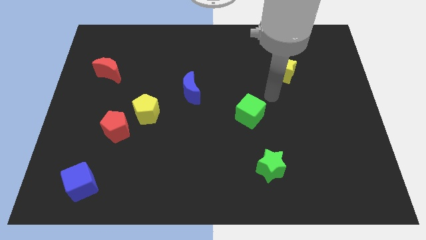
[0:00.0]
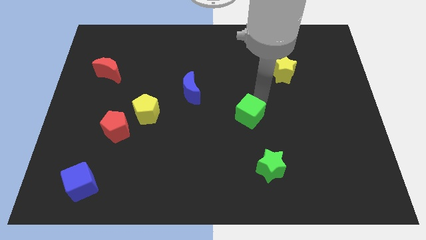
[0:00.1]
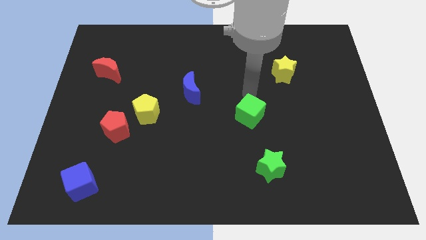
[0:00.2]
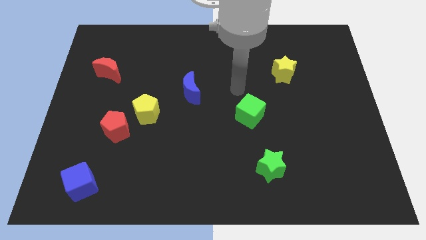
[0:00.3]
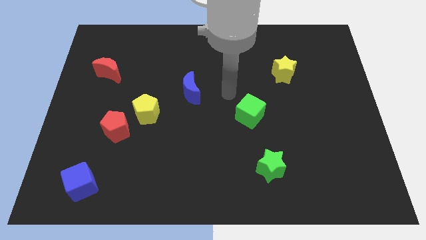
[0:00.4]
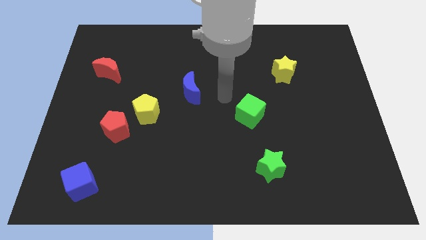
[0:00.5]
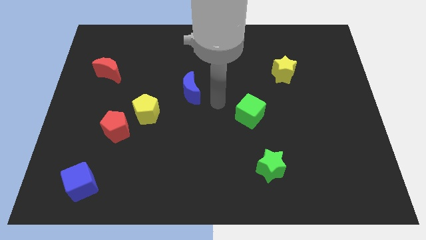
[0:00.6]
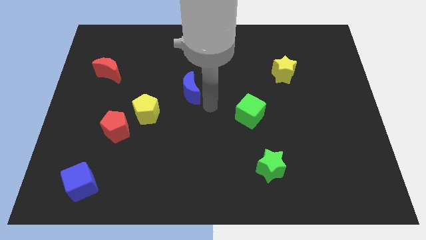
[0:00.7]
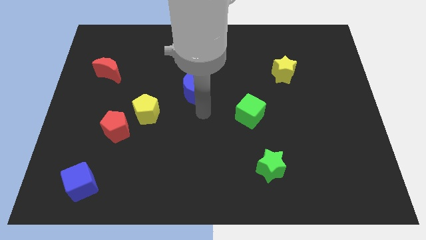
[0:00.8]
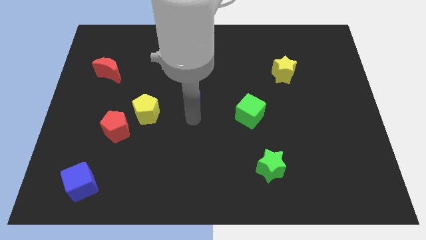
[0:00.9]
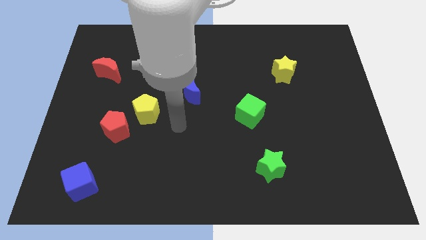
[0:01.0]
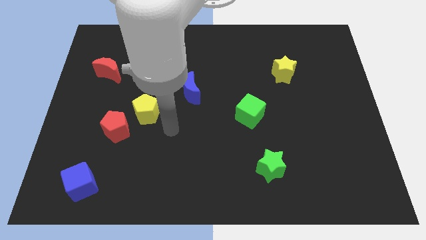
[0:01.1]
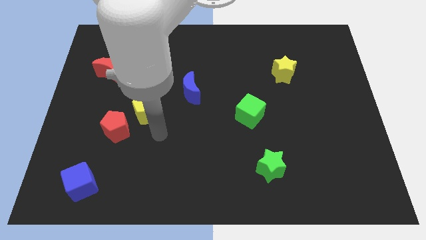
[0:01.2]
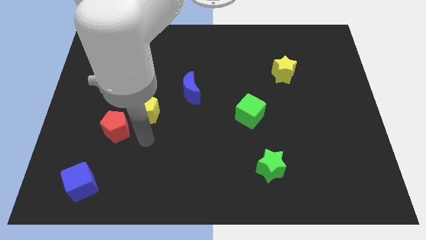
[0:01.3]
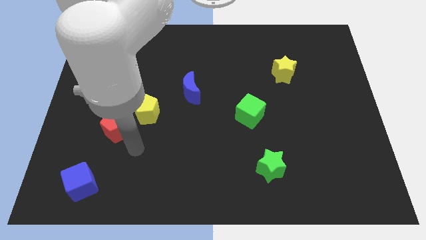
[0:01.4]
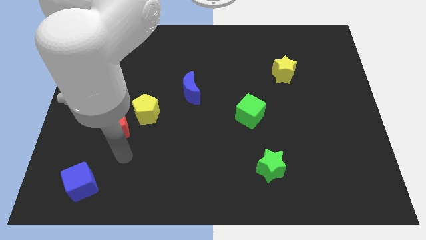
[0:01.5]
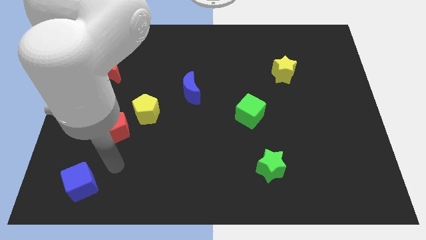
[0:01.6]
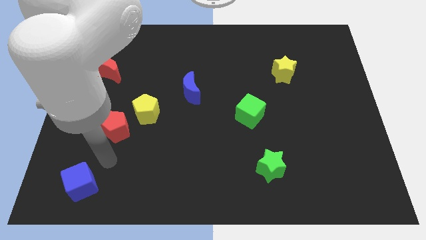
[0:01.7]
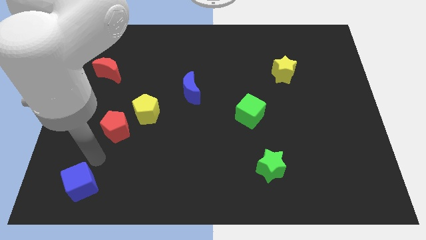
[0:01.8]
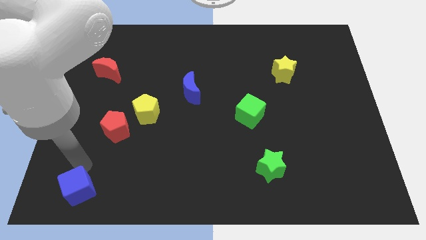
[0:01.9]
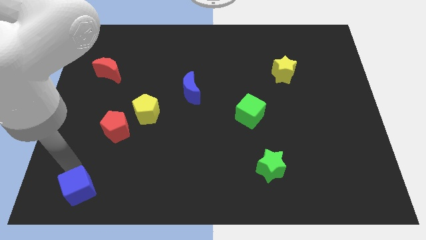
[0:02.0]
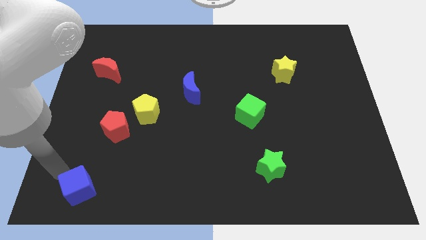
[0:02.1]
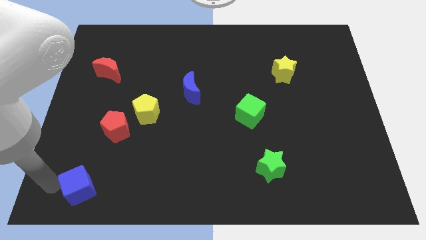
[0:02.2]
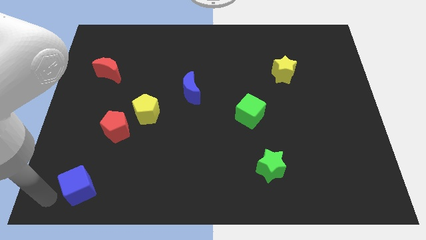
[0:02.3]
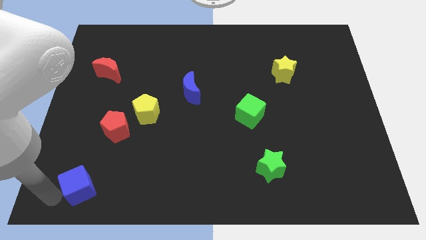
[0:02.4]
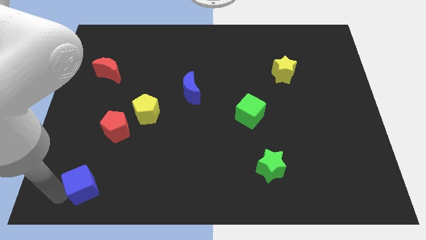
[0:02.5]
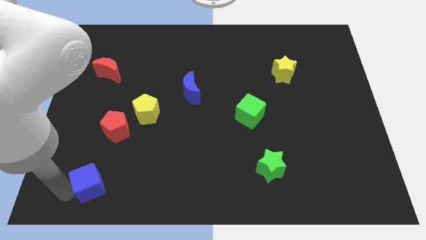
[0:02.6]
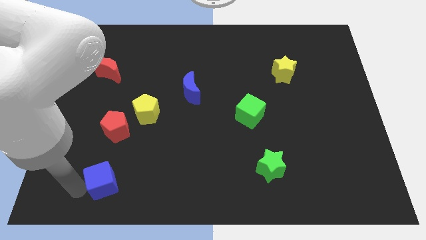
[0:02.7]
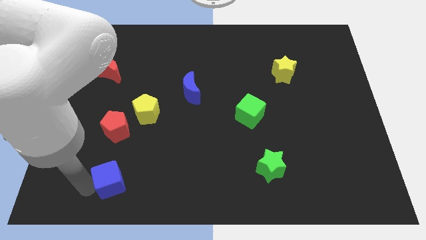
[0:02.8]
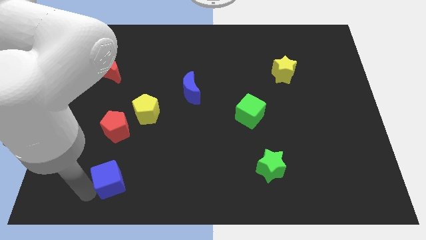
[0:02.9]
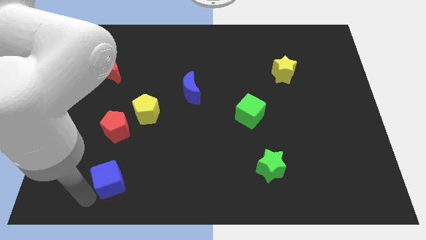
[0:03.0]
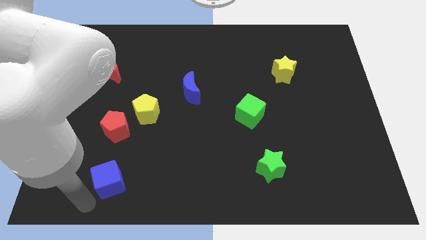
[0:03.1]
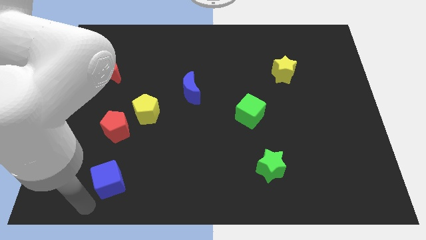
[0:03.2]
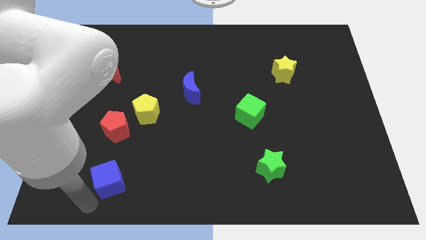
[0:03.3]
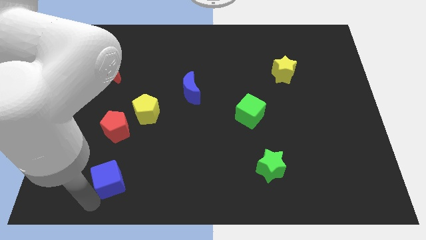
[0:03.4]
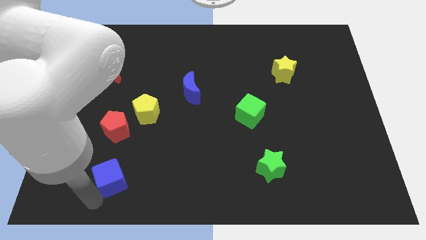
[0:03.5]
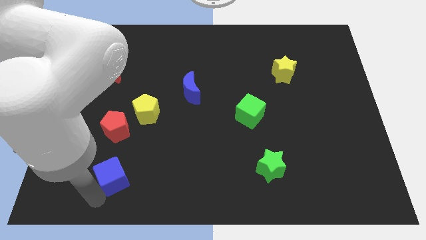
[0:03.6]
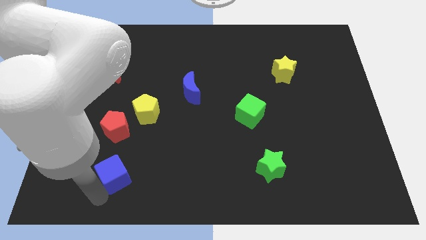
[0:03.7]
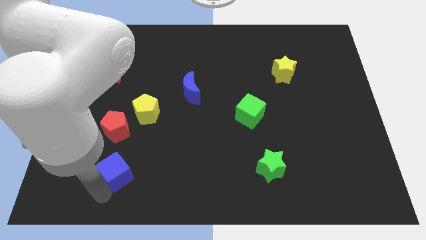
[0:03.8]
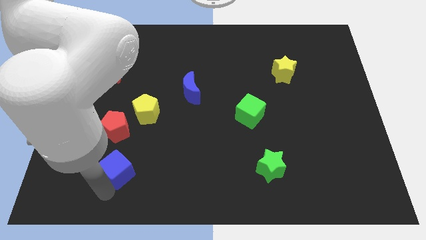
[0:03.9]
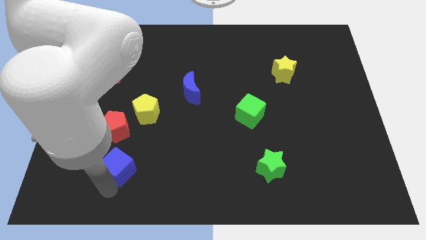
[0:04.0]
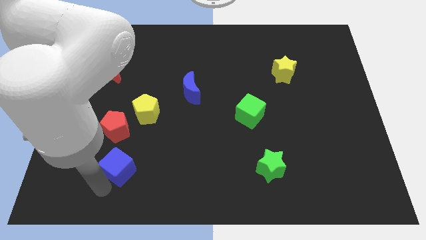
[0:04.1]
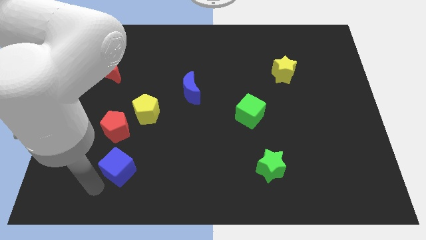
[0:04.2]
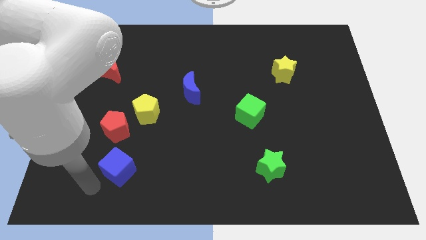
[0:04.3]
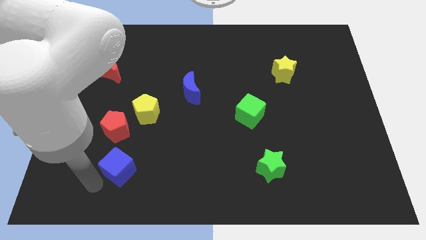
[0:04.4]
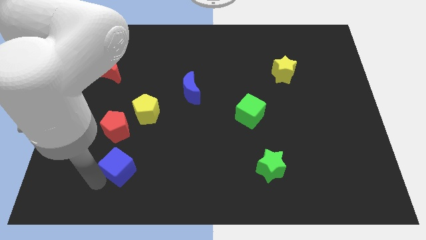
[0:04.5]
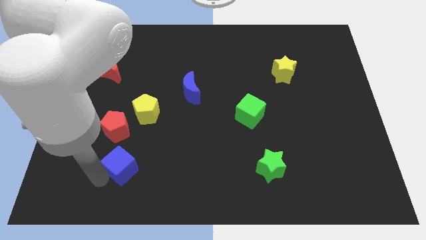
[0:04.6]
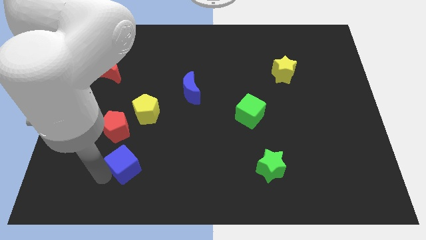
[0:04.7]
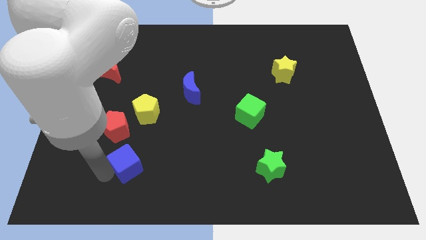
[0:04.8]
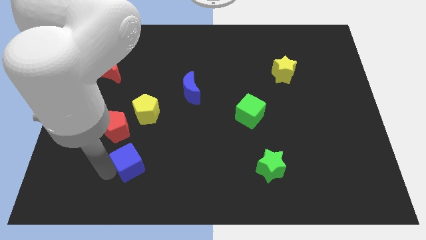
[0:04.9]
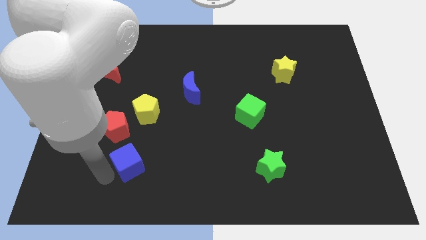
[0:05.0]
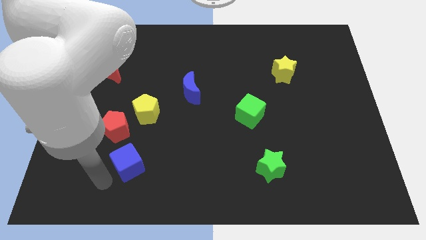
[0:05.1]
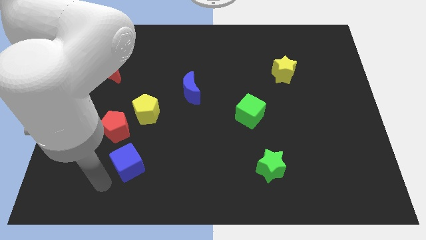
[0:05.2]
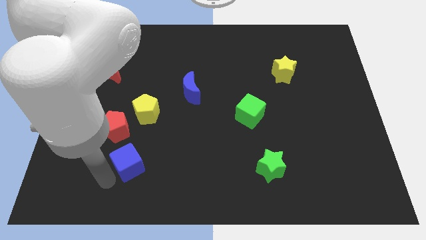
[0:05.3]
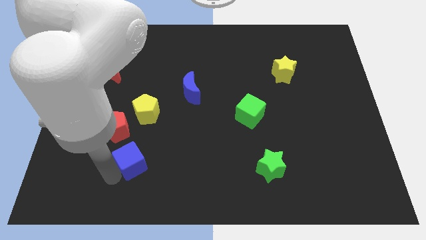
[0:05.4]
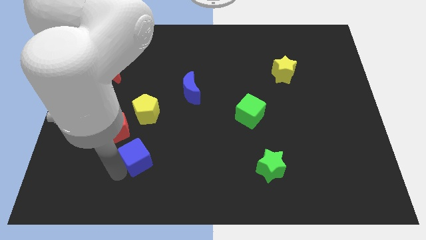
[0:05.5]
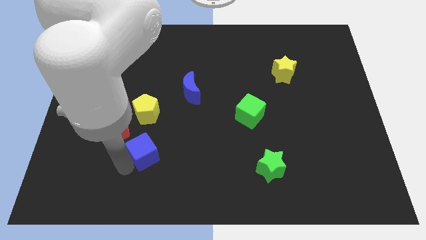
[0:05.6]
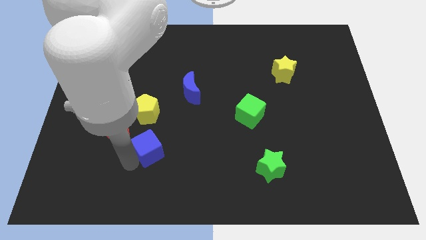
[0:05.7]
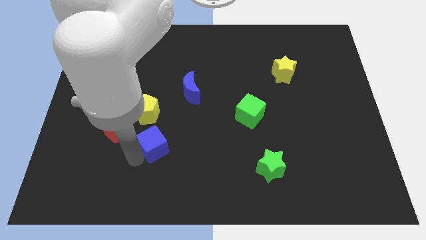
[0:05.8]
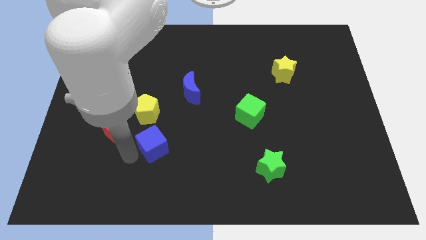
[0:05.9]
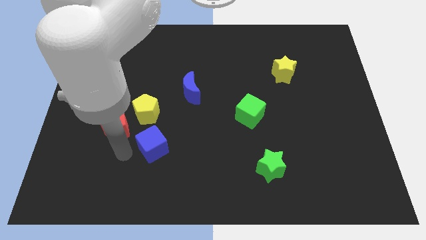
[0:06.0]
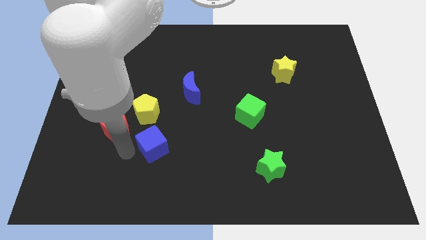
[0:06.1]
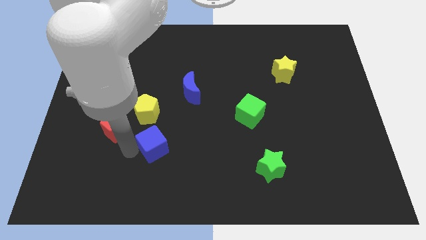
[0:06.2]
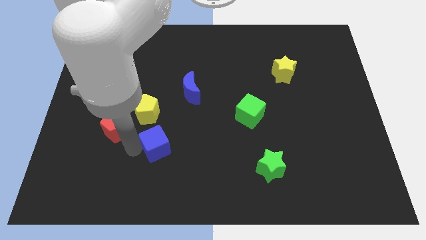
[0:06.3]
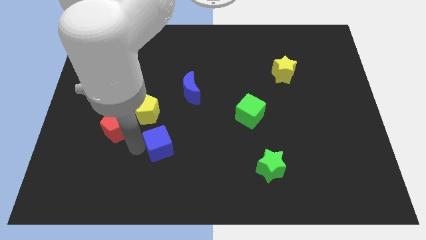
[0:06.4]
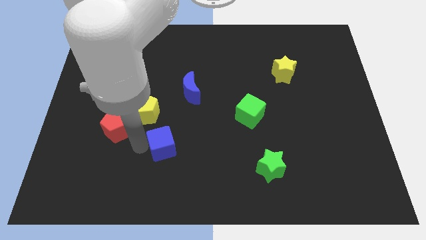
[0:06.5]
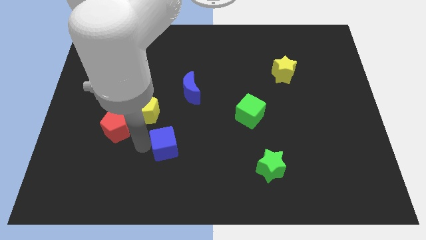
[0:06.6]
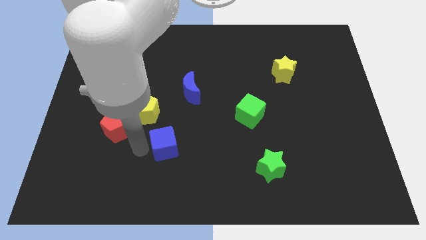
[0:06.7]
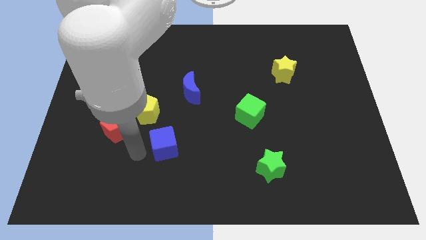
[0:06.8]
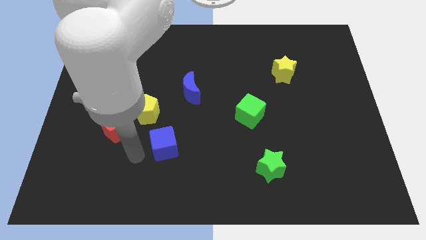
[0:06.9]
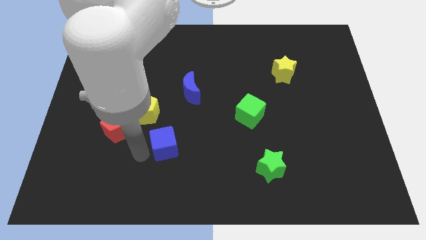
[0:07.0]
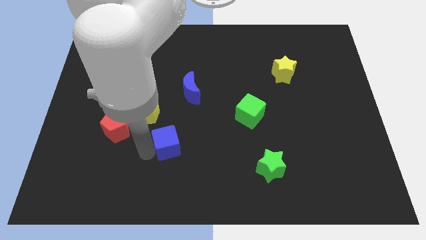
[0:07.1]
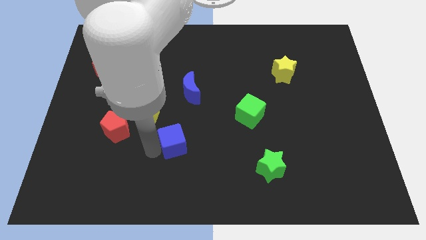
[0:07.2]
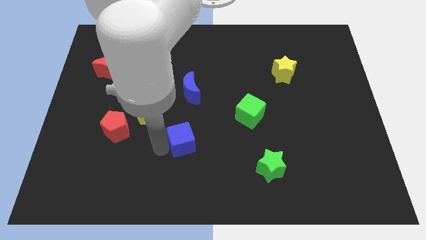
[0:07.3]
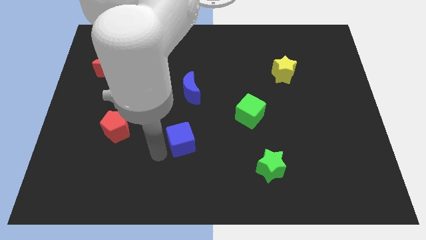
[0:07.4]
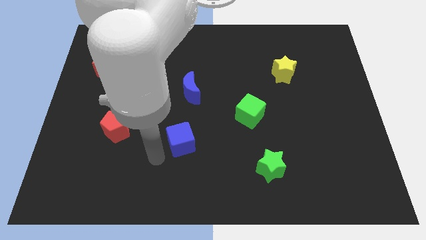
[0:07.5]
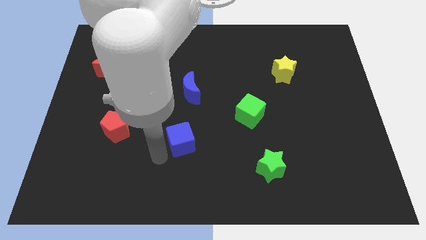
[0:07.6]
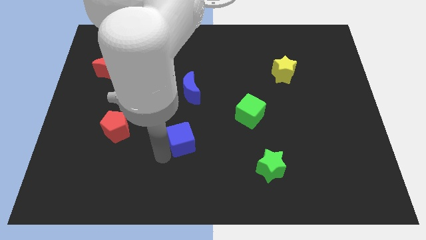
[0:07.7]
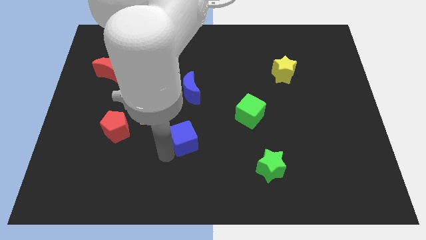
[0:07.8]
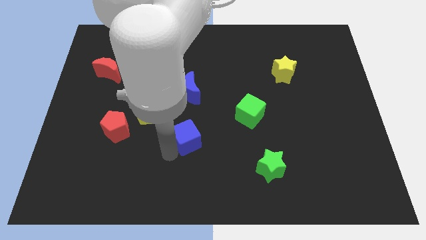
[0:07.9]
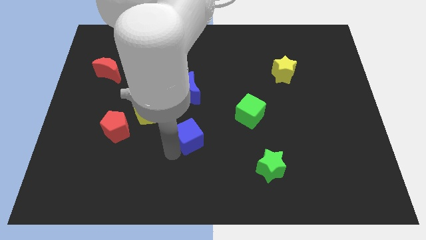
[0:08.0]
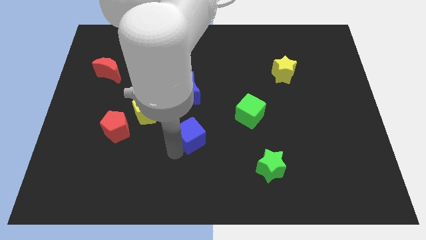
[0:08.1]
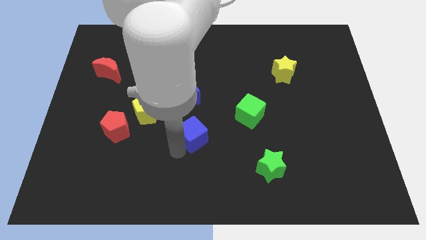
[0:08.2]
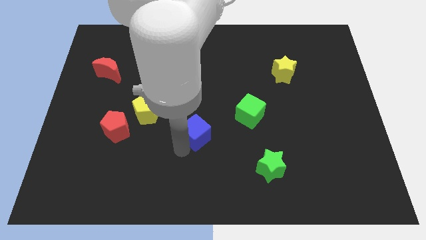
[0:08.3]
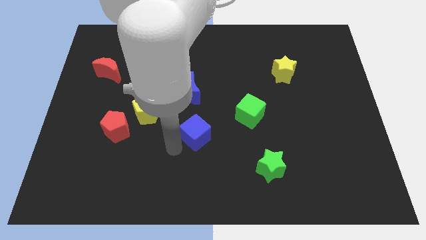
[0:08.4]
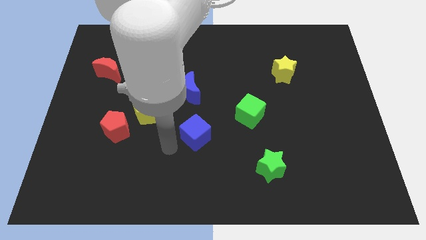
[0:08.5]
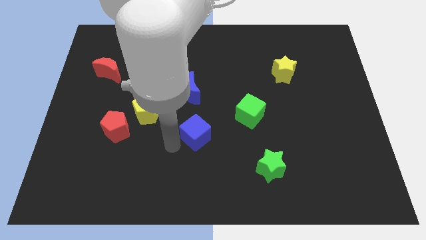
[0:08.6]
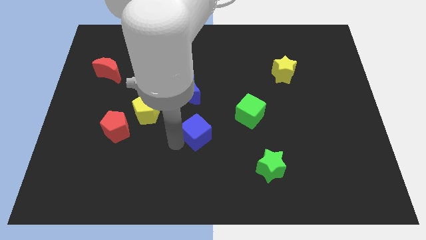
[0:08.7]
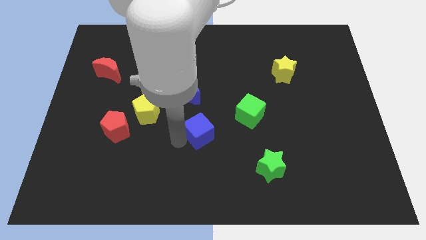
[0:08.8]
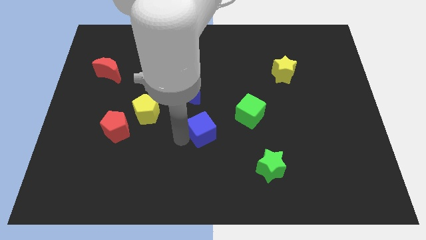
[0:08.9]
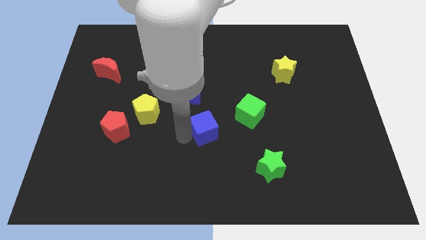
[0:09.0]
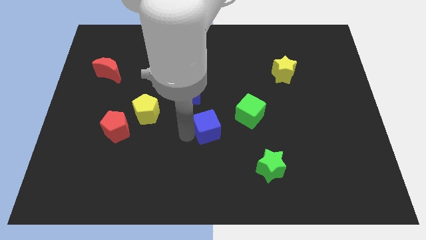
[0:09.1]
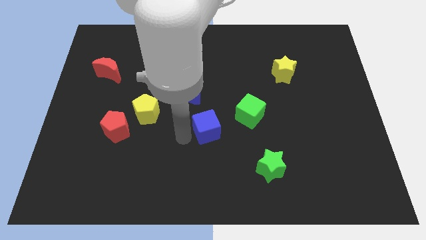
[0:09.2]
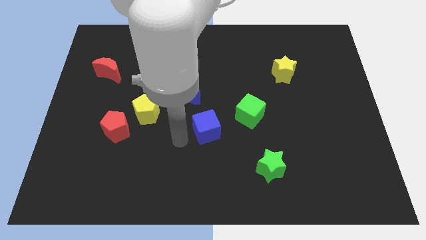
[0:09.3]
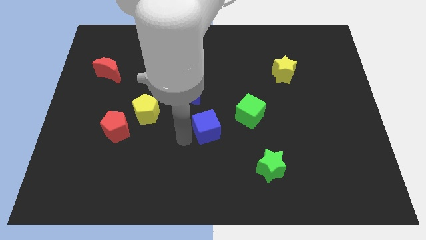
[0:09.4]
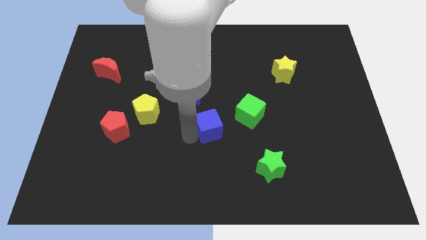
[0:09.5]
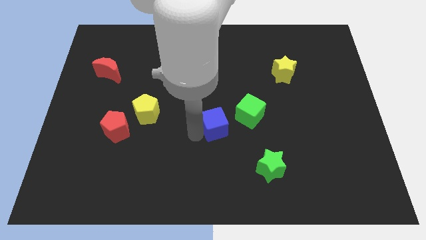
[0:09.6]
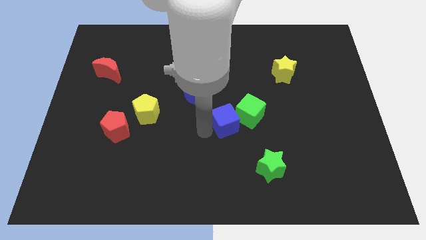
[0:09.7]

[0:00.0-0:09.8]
push the blue cube next to the green cube
